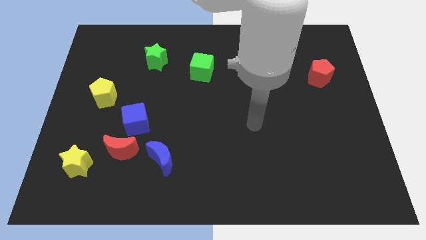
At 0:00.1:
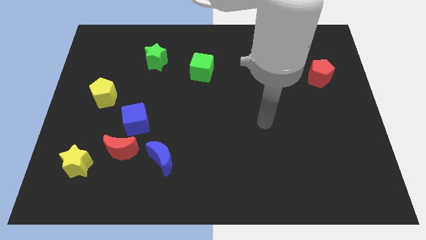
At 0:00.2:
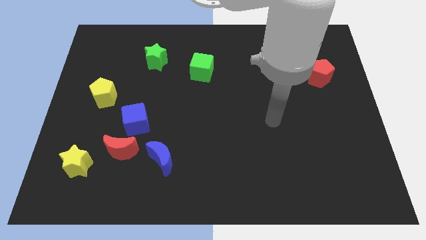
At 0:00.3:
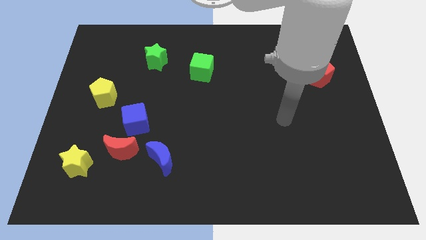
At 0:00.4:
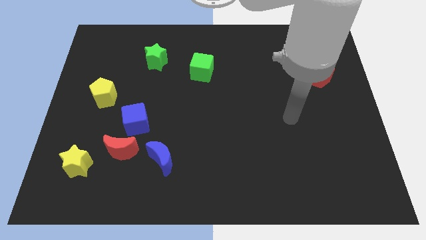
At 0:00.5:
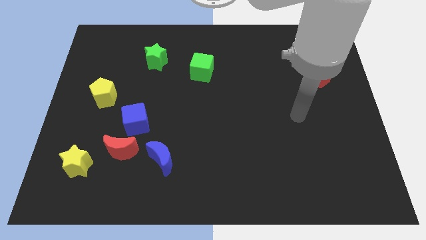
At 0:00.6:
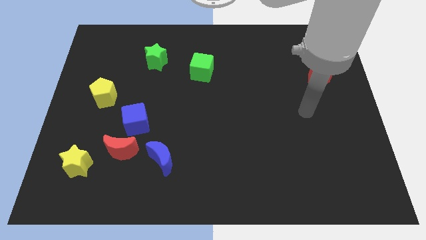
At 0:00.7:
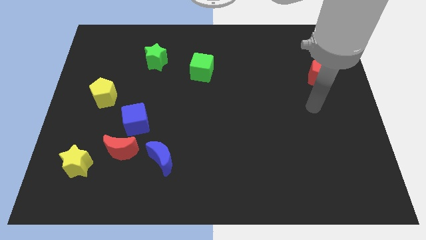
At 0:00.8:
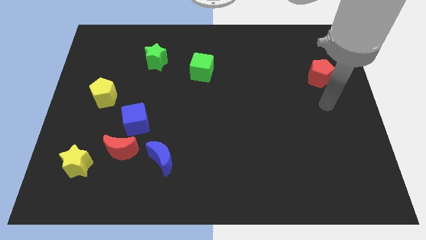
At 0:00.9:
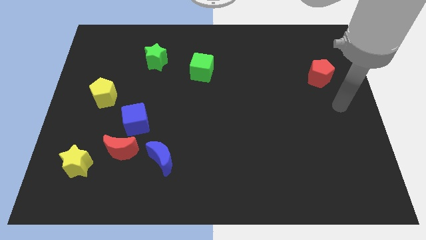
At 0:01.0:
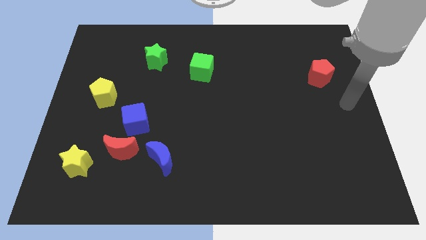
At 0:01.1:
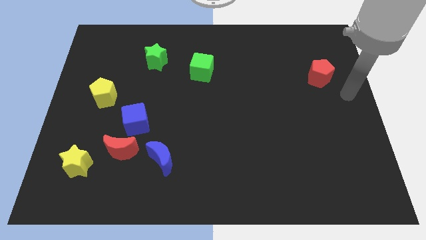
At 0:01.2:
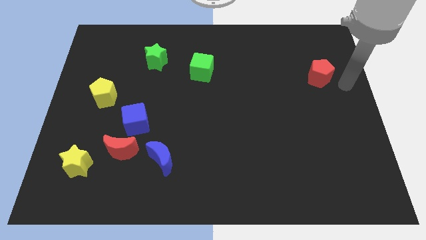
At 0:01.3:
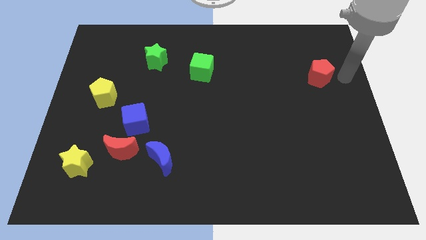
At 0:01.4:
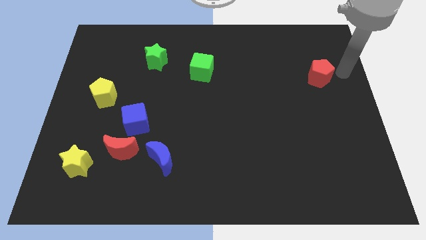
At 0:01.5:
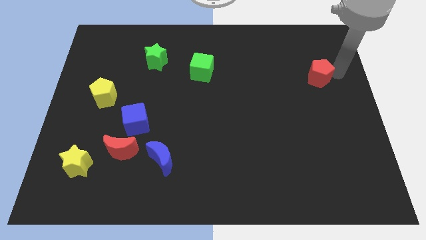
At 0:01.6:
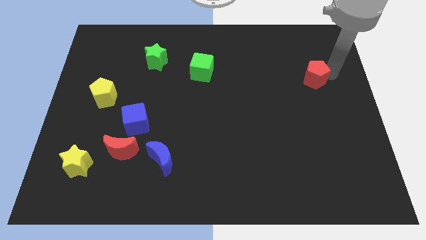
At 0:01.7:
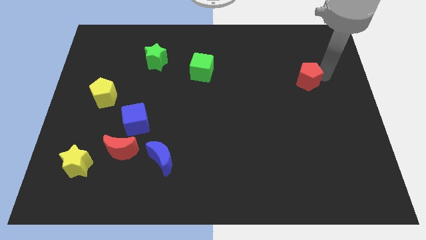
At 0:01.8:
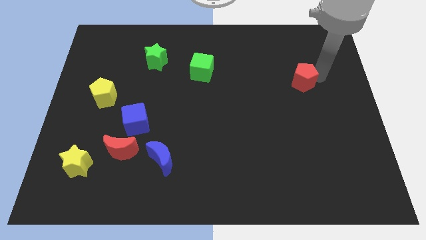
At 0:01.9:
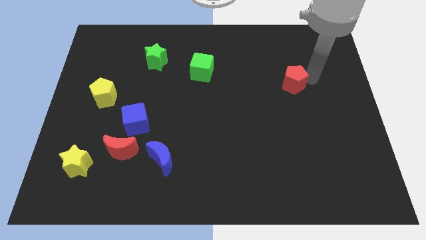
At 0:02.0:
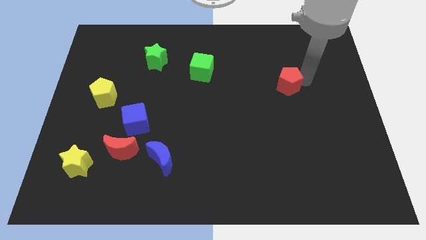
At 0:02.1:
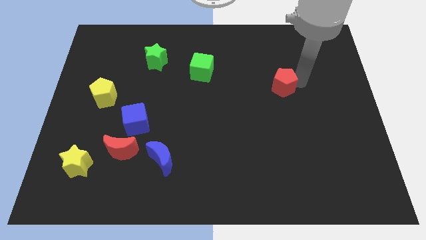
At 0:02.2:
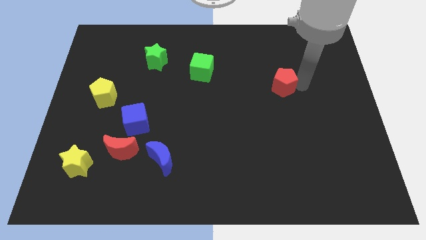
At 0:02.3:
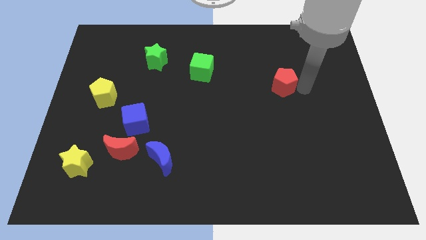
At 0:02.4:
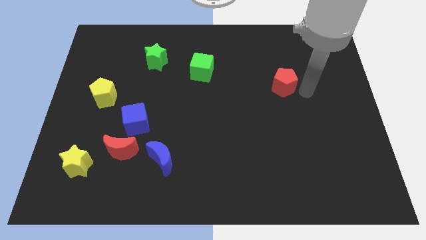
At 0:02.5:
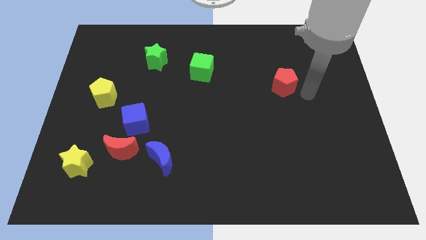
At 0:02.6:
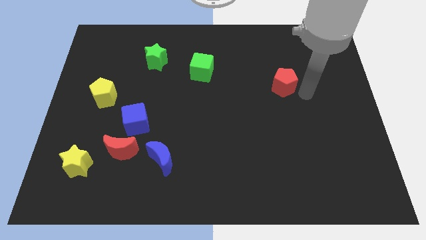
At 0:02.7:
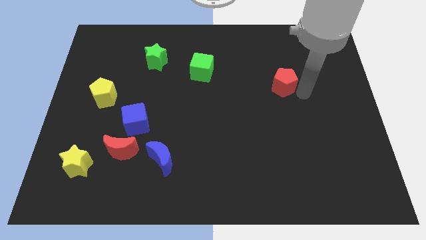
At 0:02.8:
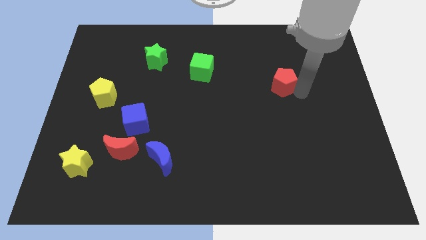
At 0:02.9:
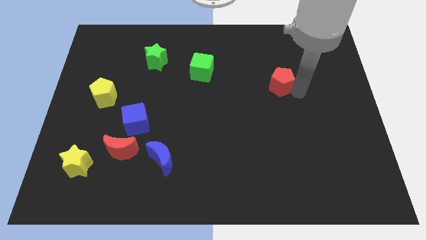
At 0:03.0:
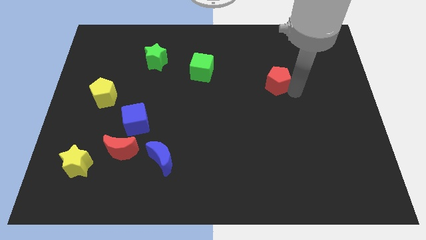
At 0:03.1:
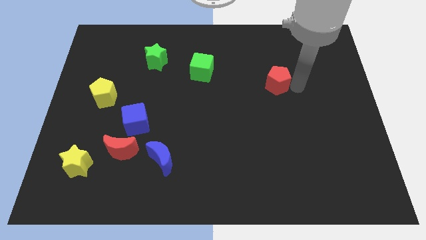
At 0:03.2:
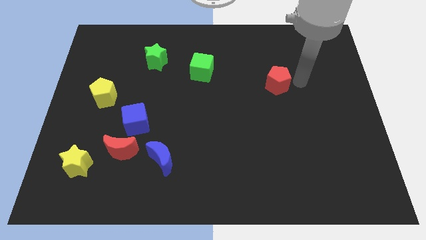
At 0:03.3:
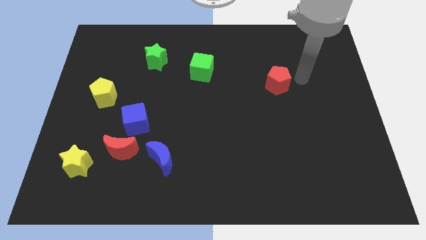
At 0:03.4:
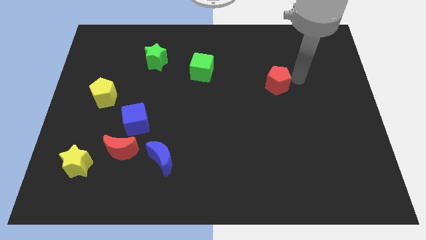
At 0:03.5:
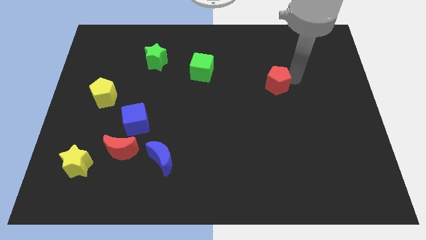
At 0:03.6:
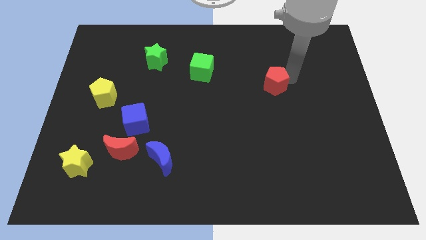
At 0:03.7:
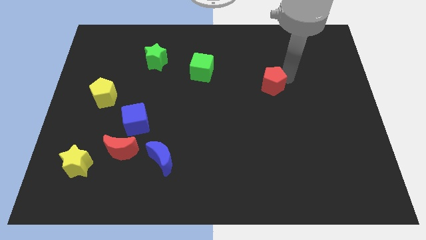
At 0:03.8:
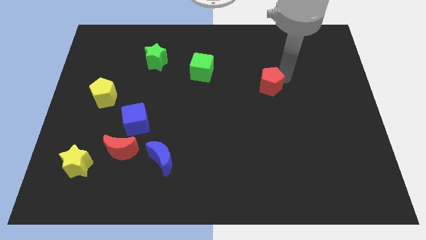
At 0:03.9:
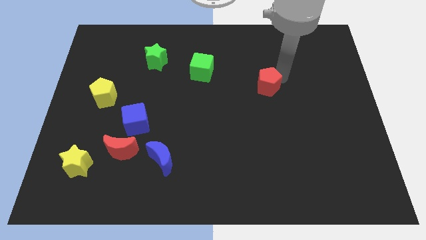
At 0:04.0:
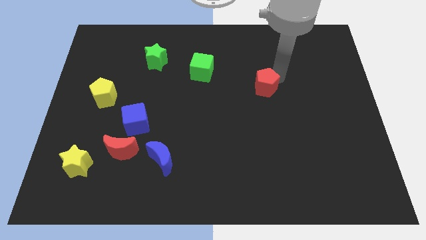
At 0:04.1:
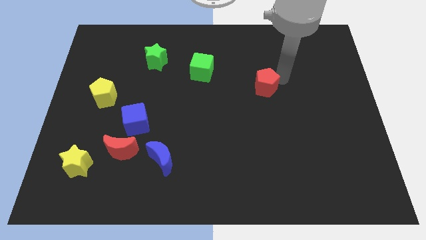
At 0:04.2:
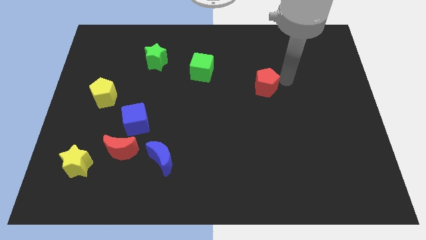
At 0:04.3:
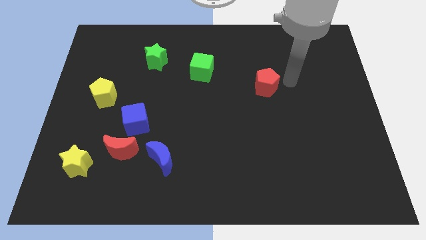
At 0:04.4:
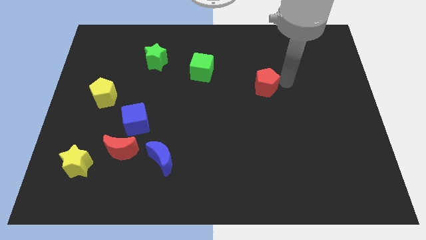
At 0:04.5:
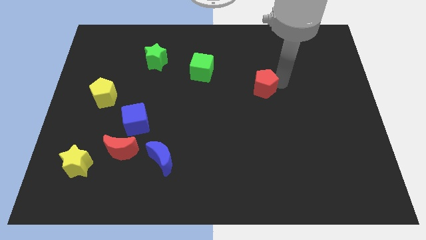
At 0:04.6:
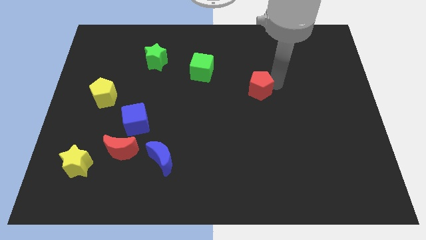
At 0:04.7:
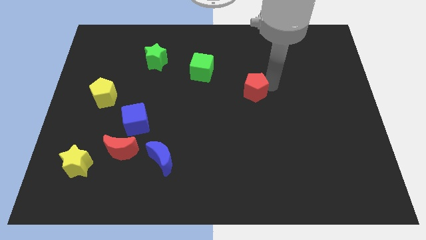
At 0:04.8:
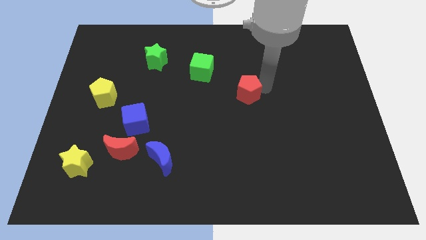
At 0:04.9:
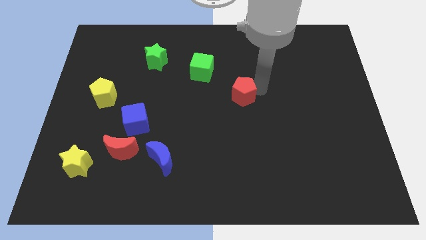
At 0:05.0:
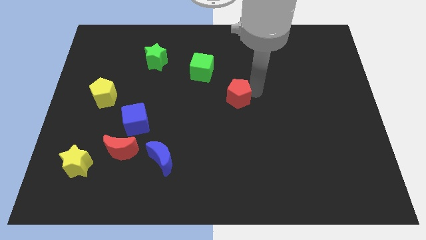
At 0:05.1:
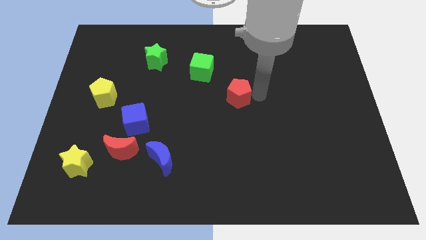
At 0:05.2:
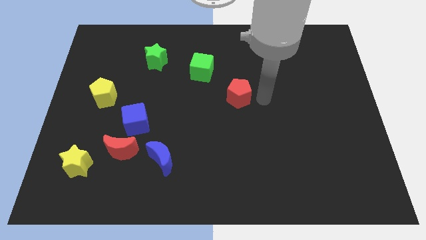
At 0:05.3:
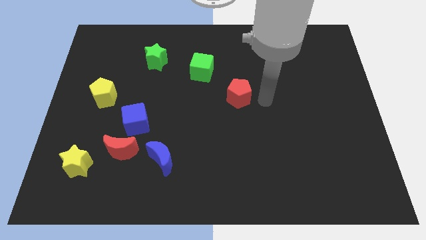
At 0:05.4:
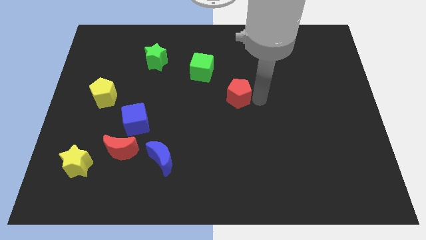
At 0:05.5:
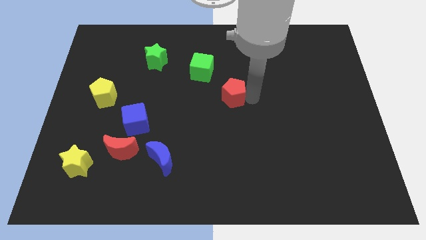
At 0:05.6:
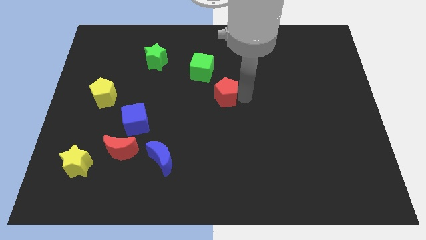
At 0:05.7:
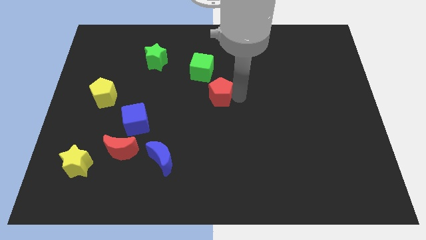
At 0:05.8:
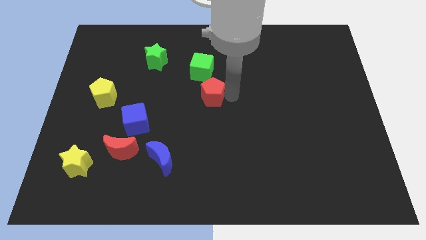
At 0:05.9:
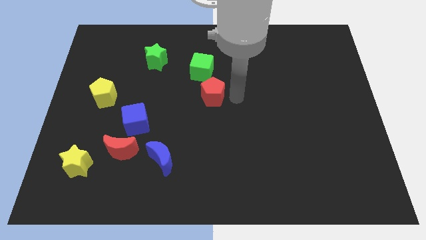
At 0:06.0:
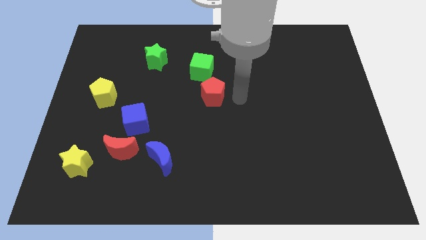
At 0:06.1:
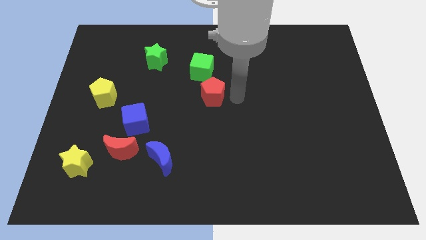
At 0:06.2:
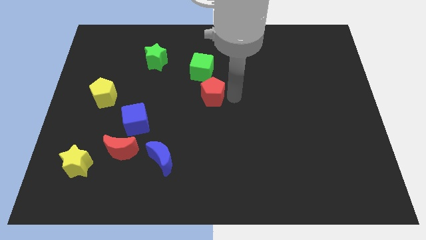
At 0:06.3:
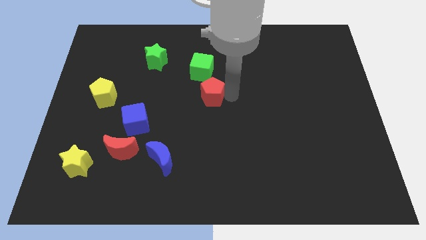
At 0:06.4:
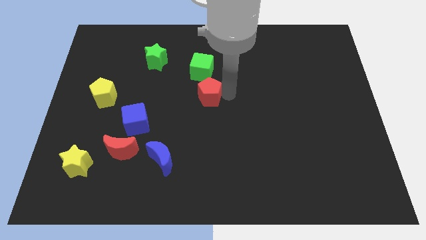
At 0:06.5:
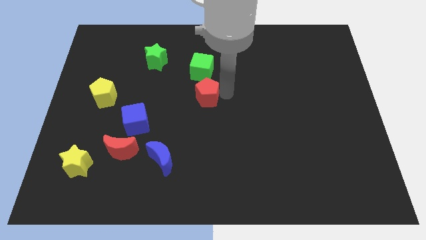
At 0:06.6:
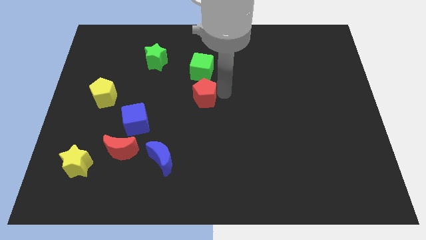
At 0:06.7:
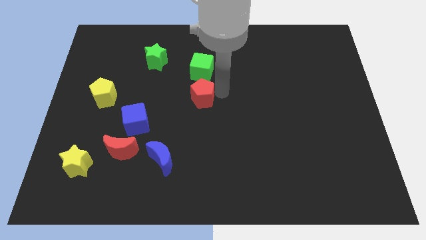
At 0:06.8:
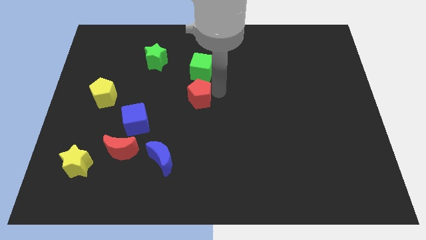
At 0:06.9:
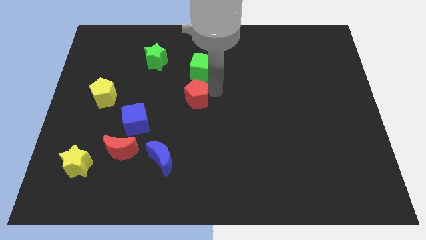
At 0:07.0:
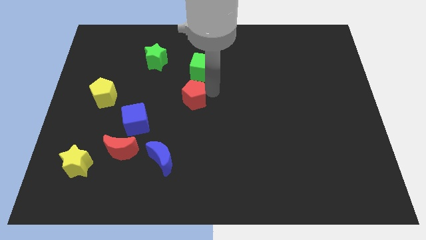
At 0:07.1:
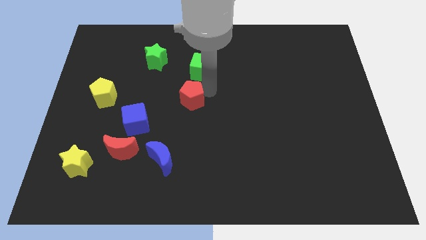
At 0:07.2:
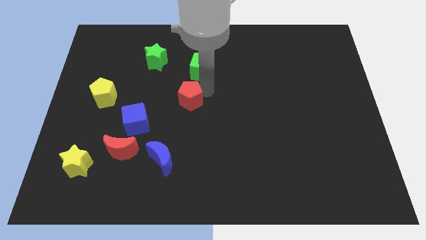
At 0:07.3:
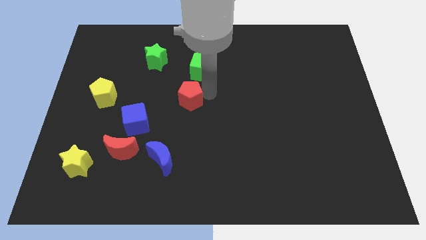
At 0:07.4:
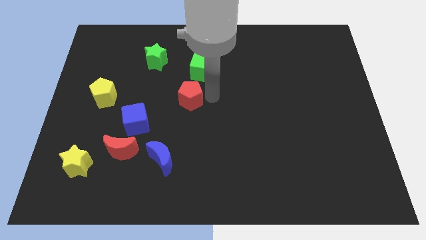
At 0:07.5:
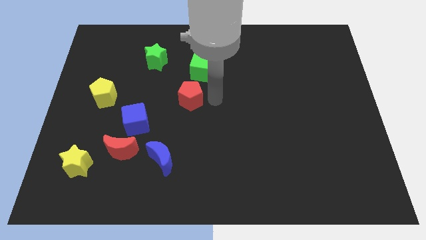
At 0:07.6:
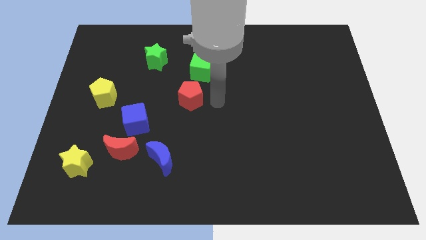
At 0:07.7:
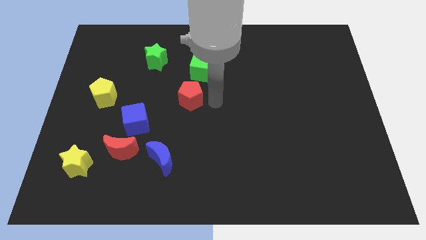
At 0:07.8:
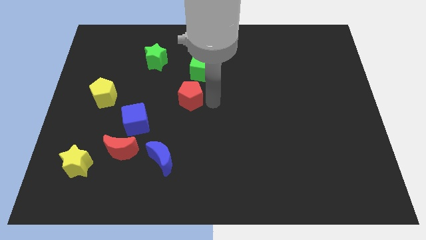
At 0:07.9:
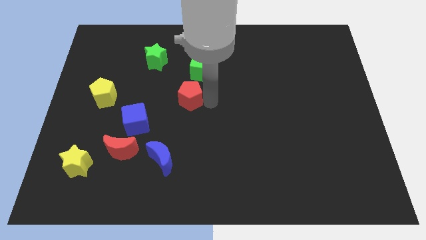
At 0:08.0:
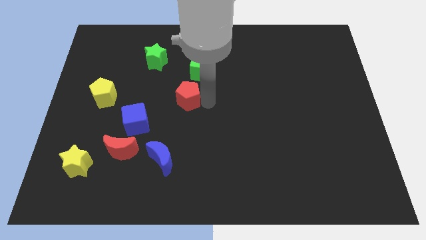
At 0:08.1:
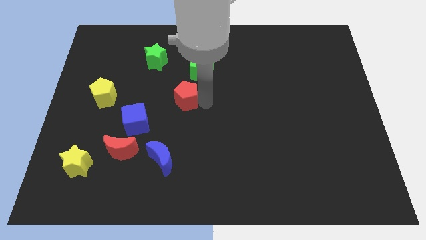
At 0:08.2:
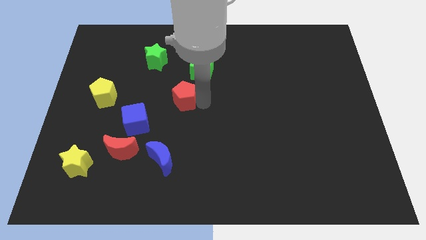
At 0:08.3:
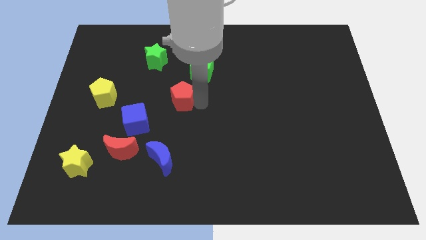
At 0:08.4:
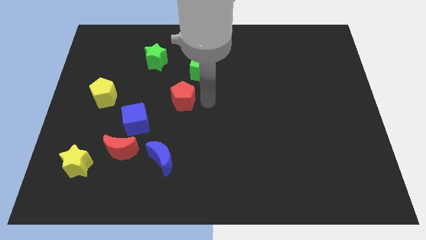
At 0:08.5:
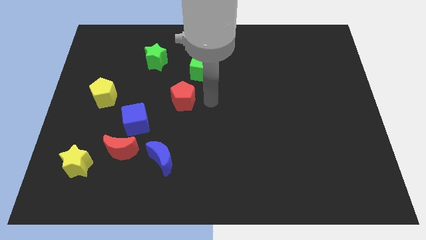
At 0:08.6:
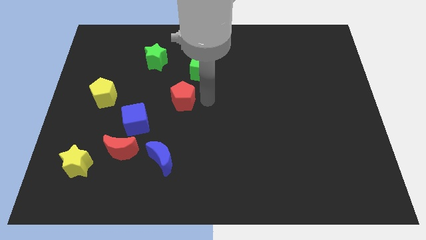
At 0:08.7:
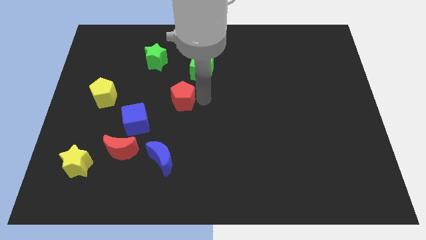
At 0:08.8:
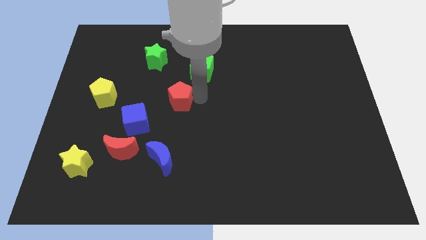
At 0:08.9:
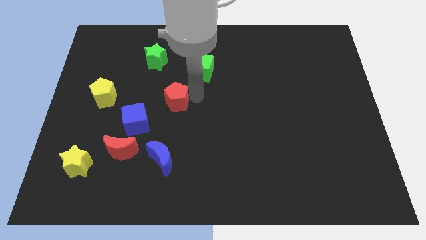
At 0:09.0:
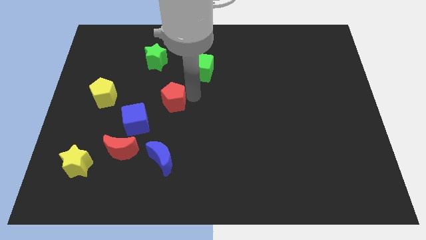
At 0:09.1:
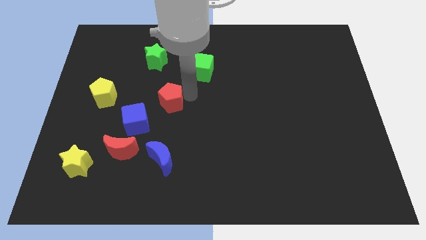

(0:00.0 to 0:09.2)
slide the red pentagon to the right side of the yellow pentagon
